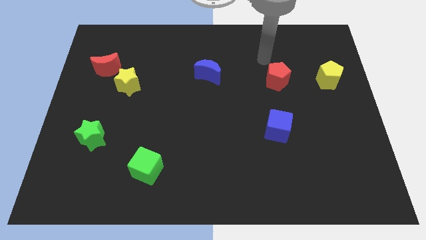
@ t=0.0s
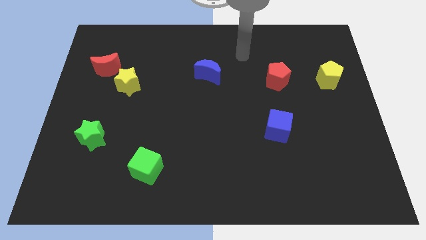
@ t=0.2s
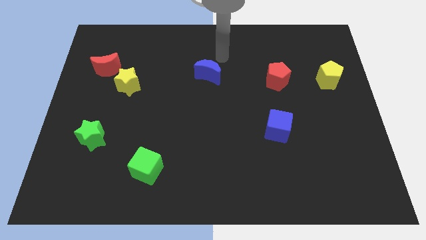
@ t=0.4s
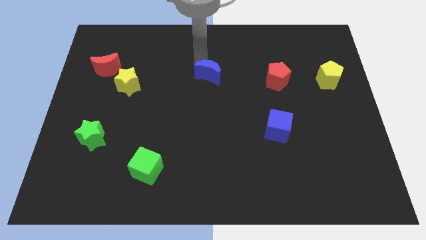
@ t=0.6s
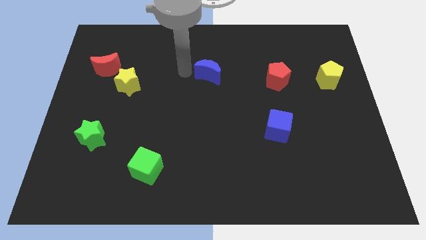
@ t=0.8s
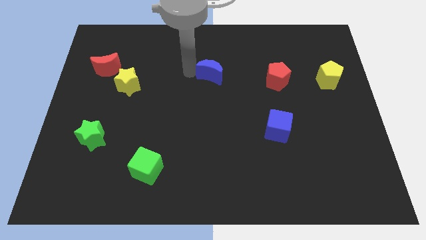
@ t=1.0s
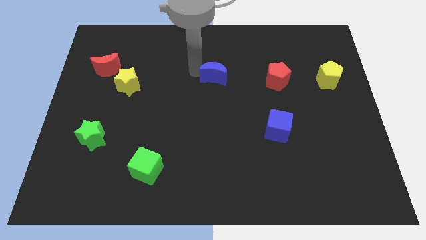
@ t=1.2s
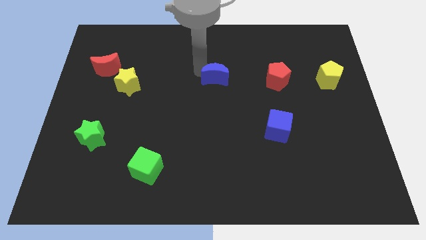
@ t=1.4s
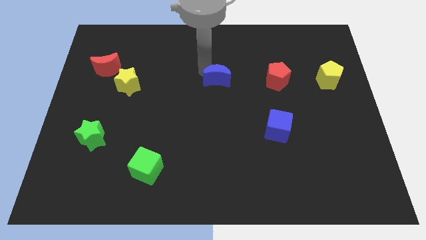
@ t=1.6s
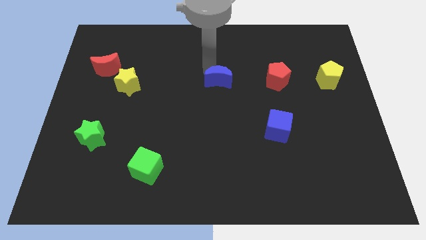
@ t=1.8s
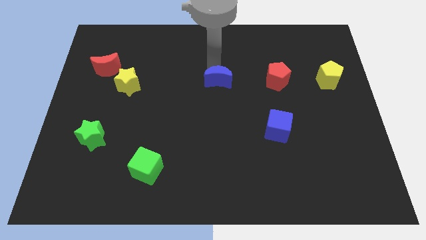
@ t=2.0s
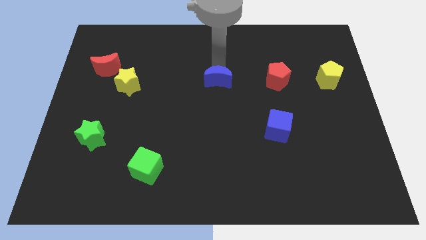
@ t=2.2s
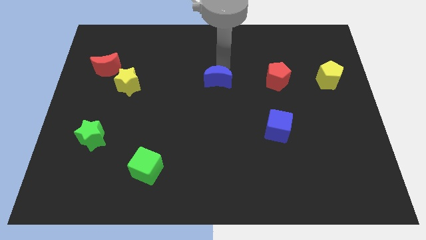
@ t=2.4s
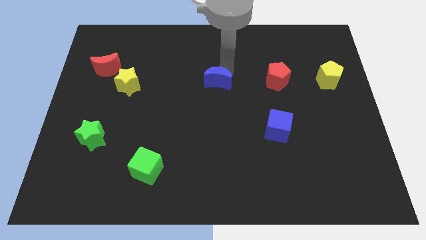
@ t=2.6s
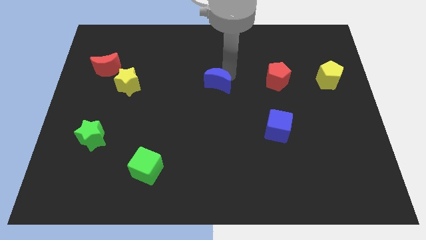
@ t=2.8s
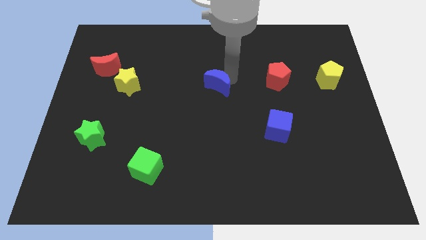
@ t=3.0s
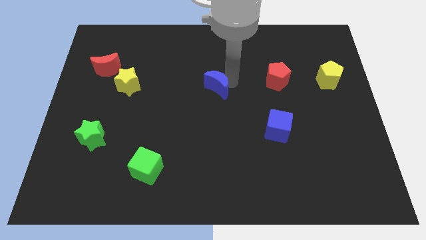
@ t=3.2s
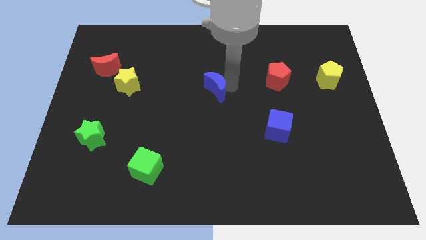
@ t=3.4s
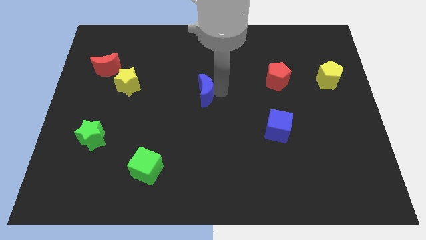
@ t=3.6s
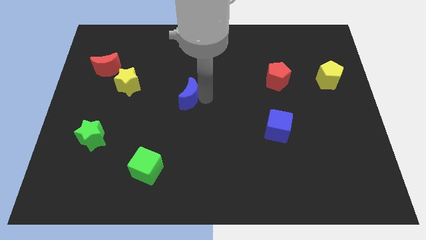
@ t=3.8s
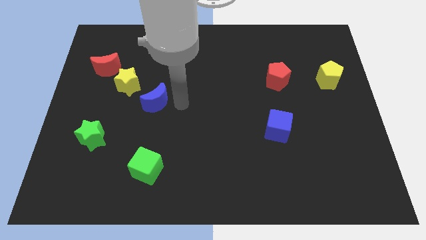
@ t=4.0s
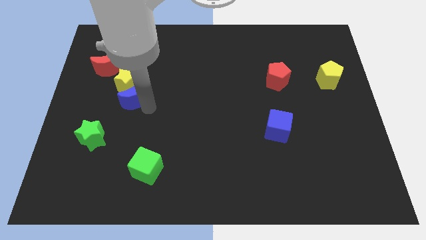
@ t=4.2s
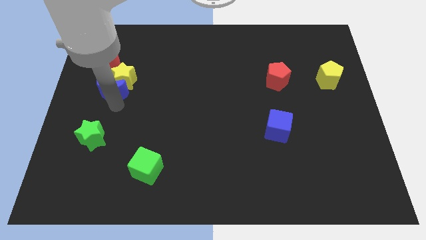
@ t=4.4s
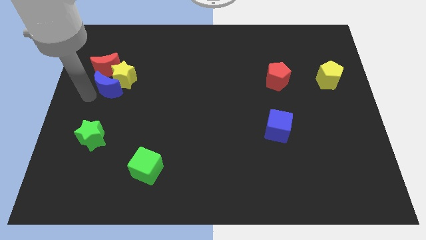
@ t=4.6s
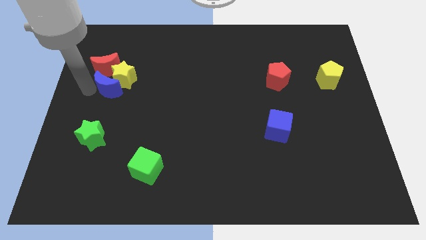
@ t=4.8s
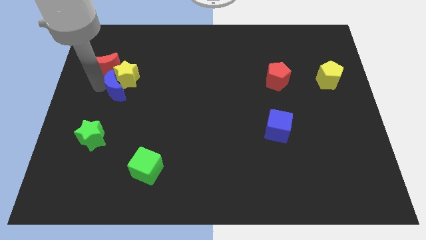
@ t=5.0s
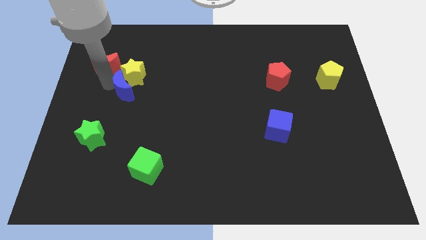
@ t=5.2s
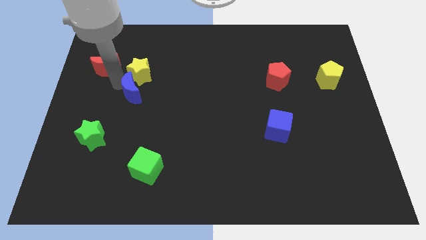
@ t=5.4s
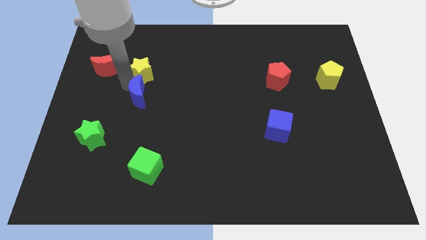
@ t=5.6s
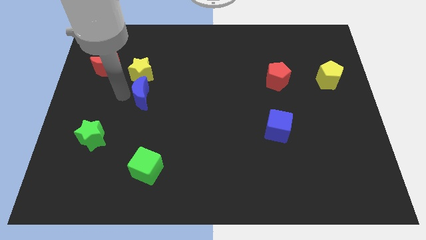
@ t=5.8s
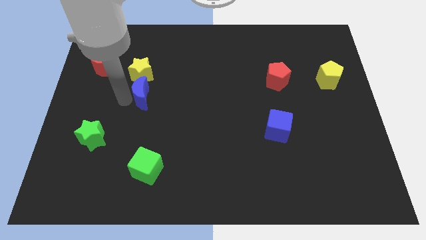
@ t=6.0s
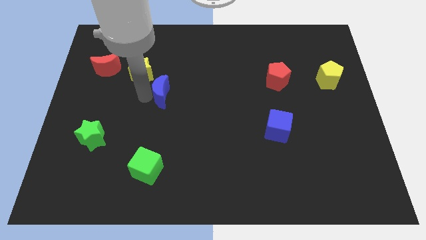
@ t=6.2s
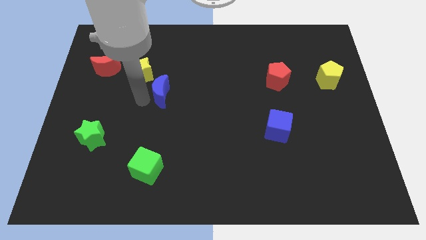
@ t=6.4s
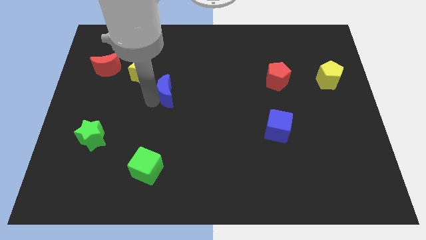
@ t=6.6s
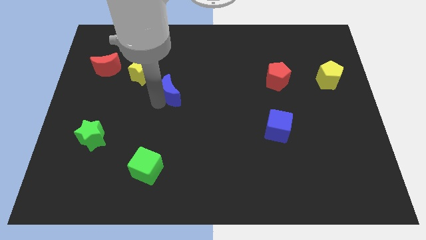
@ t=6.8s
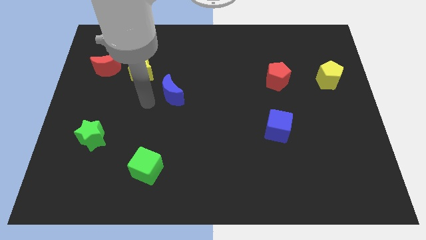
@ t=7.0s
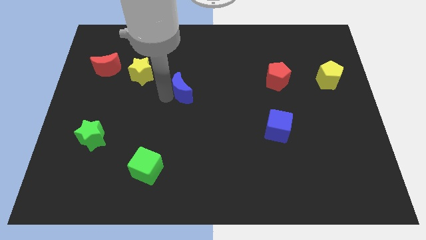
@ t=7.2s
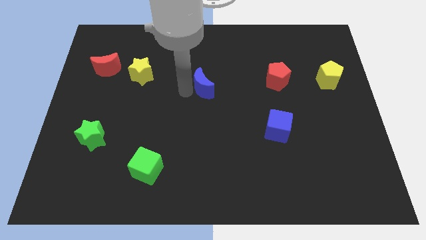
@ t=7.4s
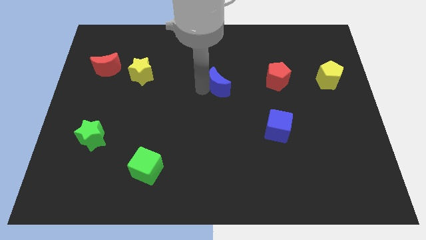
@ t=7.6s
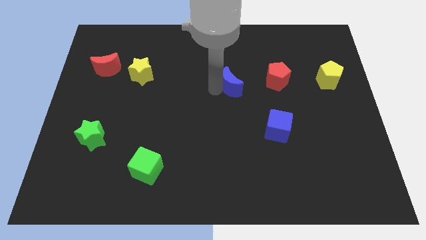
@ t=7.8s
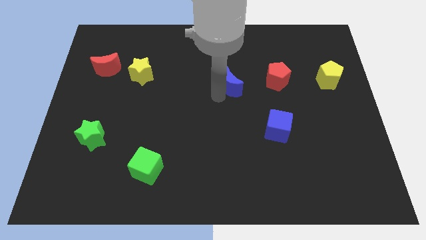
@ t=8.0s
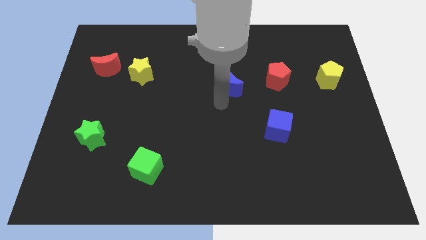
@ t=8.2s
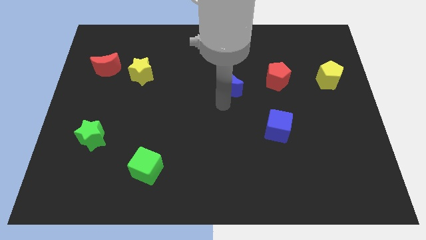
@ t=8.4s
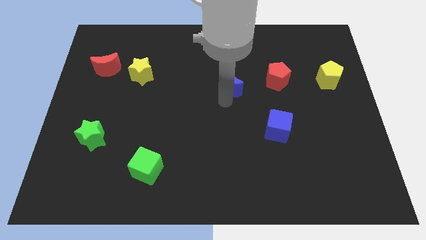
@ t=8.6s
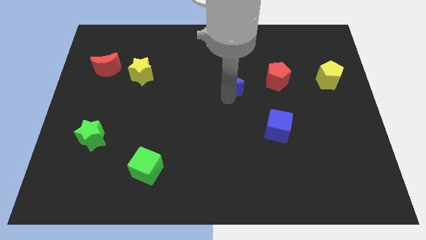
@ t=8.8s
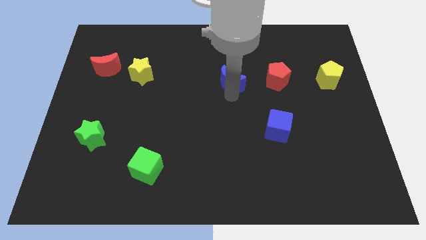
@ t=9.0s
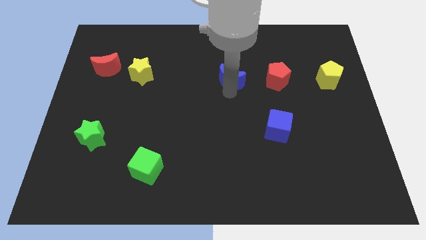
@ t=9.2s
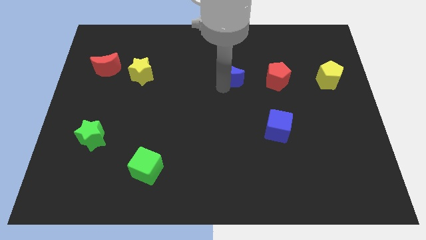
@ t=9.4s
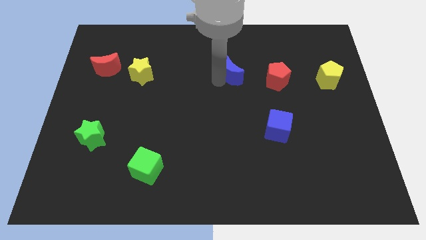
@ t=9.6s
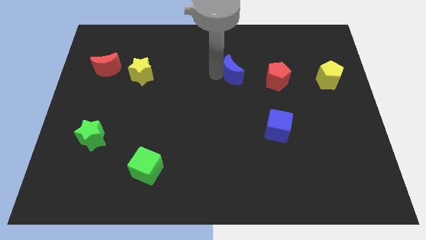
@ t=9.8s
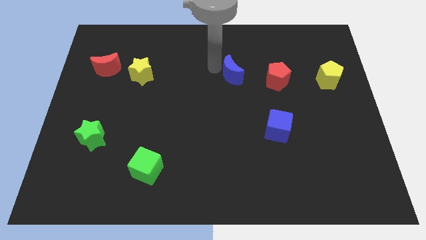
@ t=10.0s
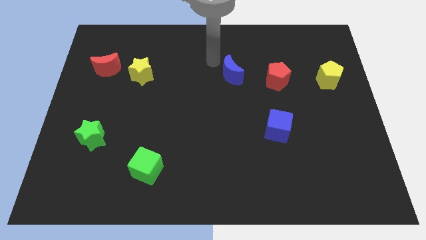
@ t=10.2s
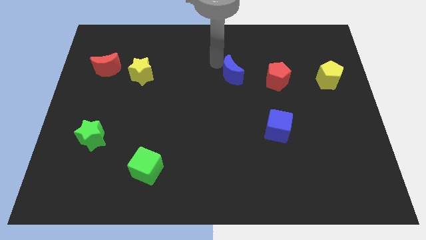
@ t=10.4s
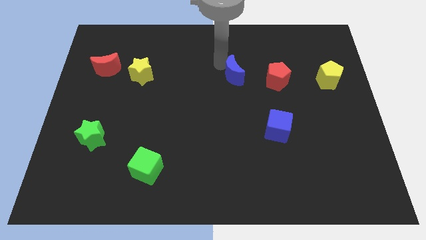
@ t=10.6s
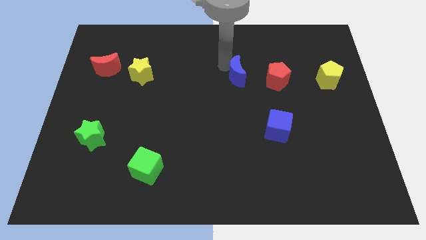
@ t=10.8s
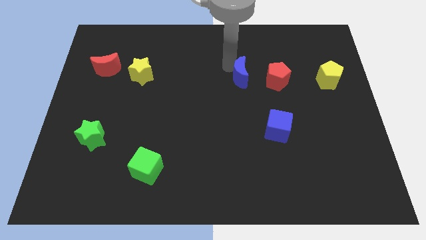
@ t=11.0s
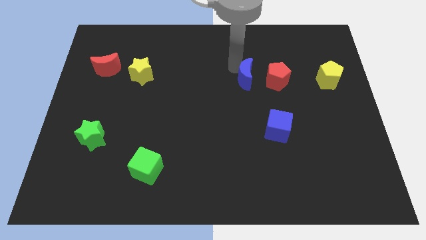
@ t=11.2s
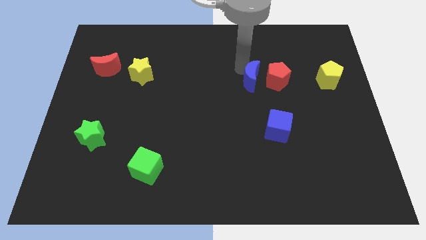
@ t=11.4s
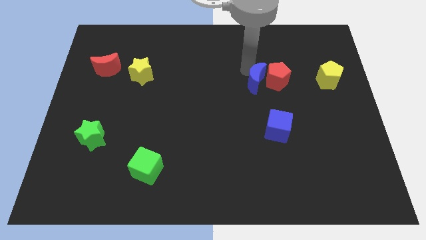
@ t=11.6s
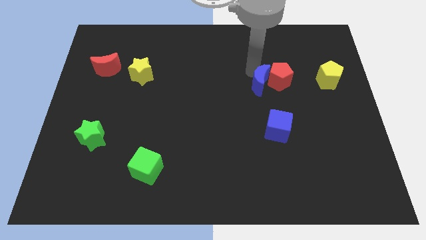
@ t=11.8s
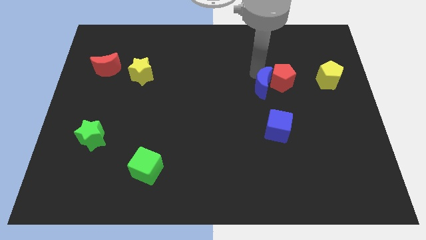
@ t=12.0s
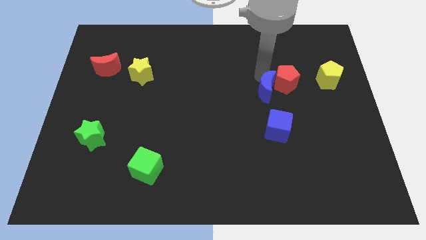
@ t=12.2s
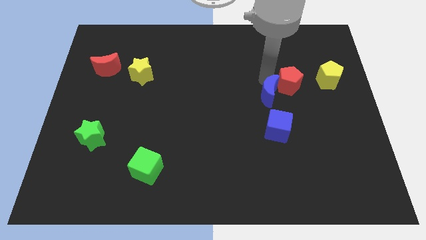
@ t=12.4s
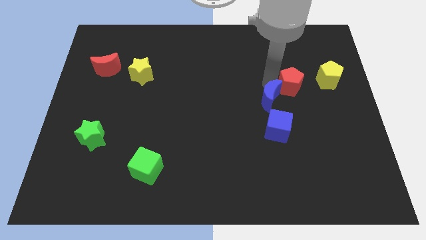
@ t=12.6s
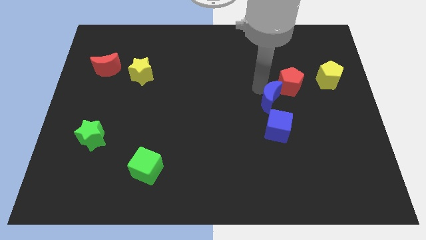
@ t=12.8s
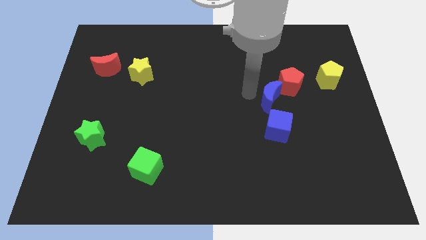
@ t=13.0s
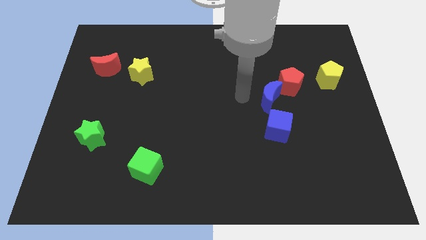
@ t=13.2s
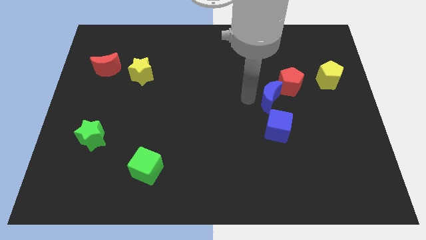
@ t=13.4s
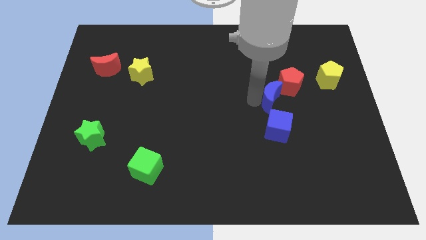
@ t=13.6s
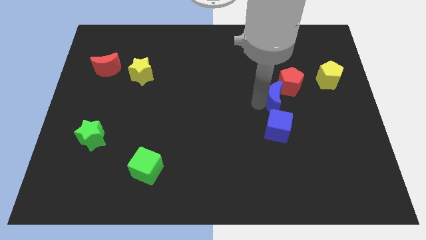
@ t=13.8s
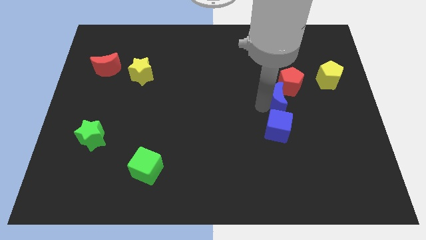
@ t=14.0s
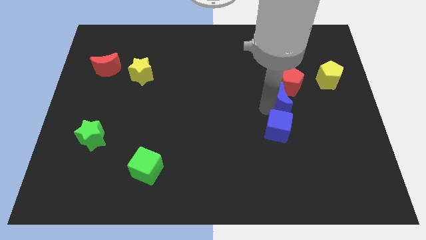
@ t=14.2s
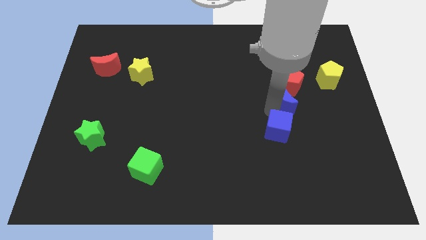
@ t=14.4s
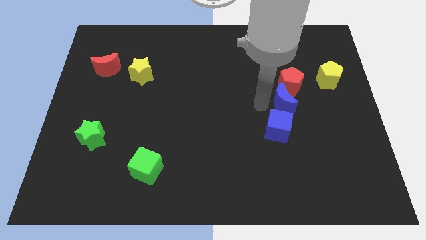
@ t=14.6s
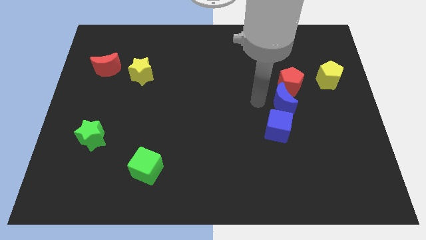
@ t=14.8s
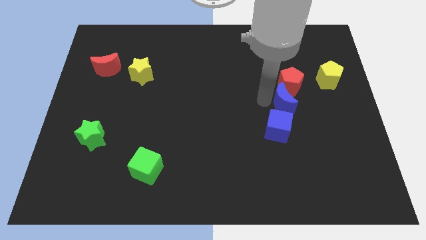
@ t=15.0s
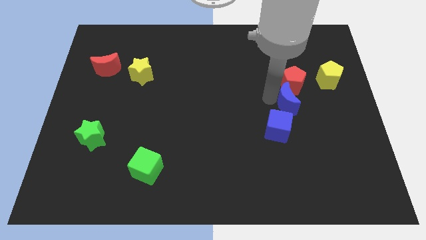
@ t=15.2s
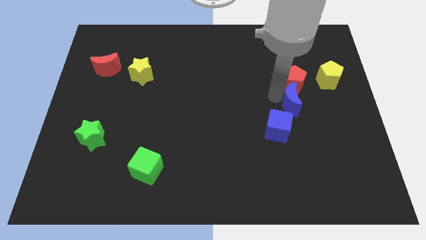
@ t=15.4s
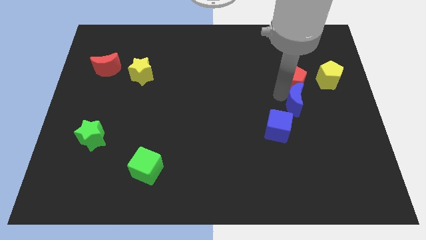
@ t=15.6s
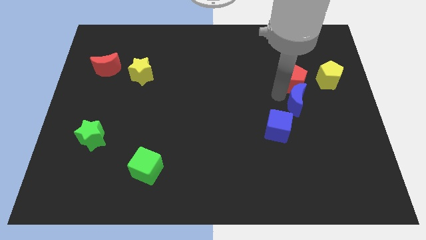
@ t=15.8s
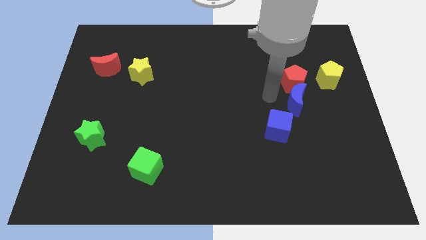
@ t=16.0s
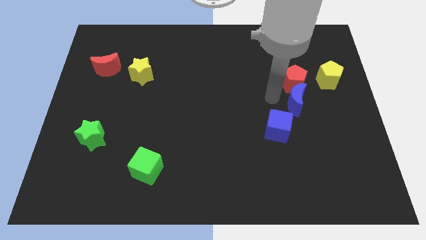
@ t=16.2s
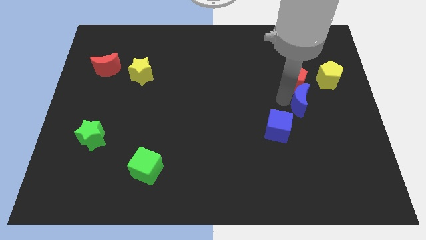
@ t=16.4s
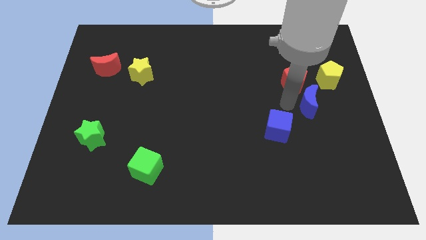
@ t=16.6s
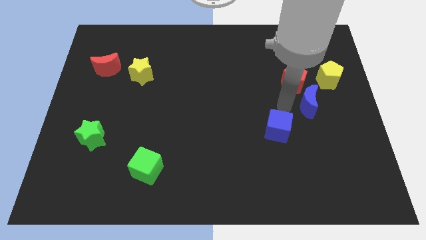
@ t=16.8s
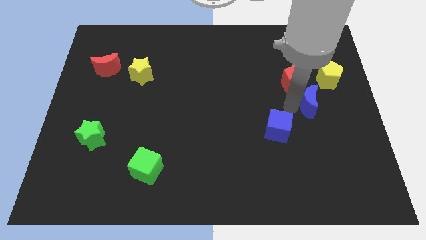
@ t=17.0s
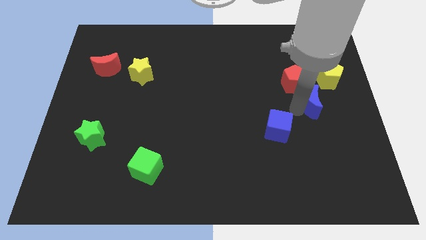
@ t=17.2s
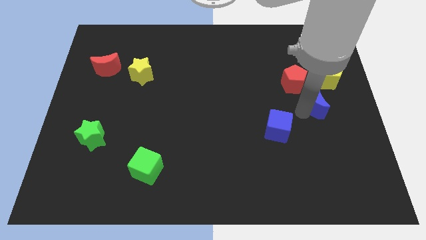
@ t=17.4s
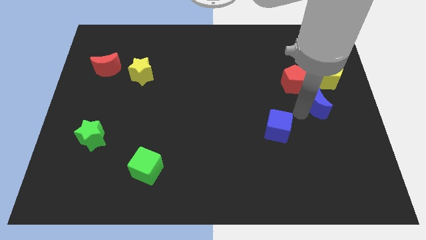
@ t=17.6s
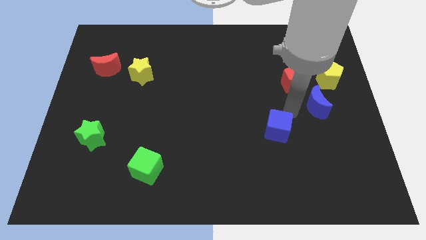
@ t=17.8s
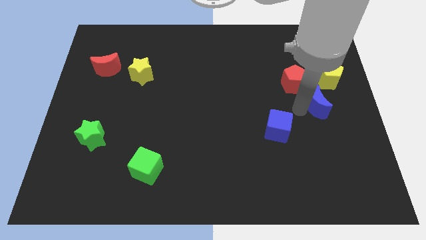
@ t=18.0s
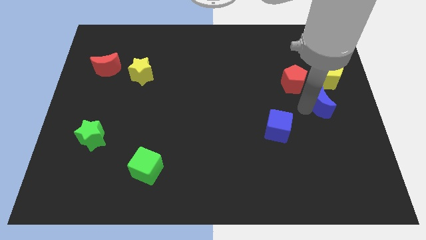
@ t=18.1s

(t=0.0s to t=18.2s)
push the blue moon to the right side of the board
